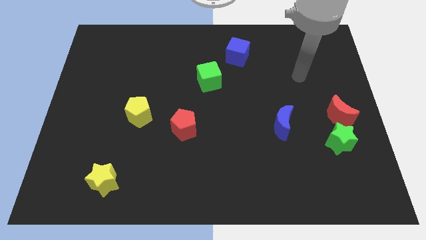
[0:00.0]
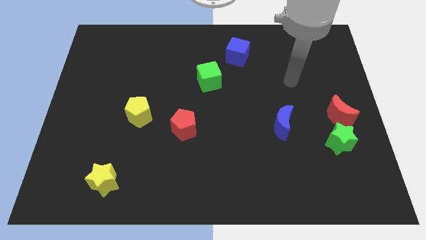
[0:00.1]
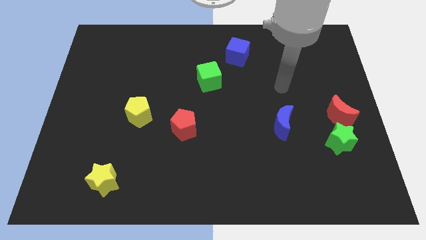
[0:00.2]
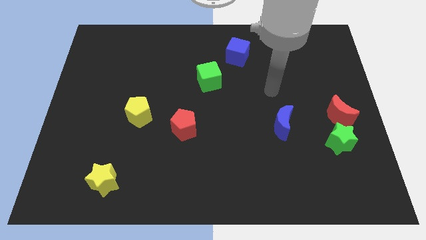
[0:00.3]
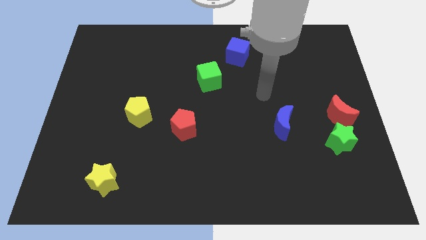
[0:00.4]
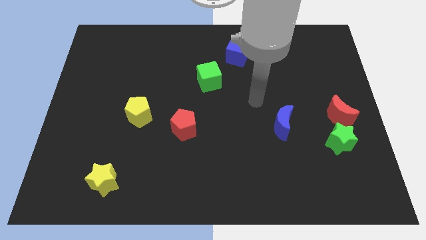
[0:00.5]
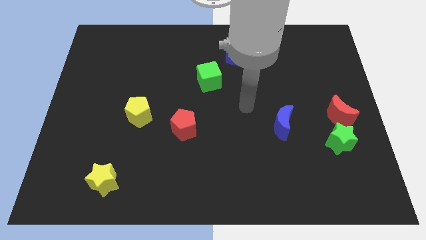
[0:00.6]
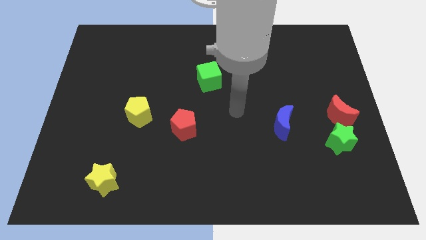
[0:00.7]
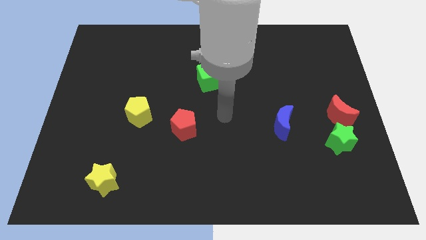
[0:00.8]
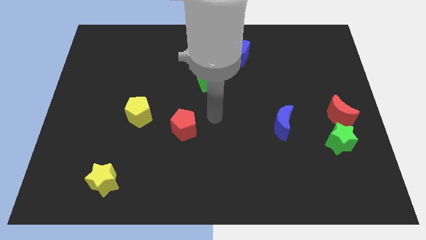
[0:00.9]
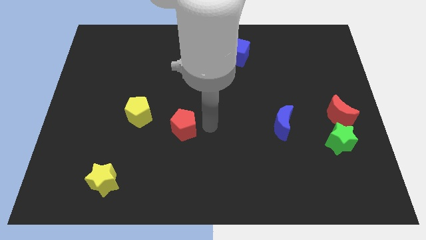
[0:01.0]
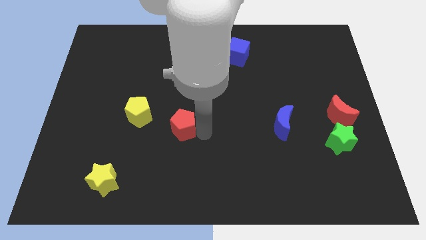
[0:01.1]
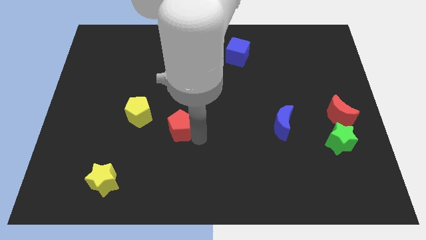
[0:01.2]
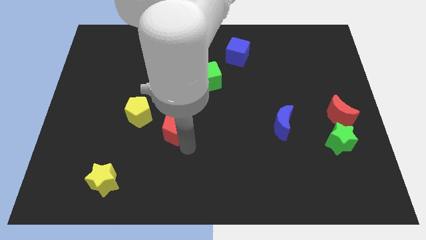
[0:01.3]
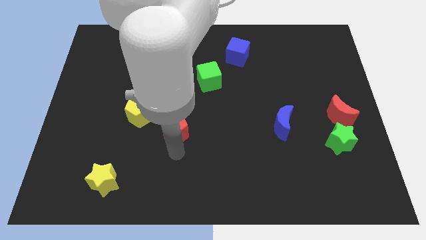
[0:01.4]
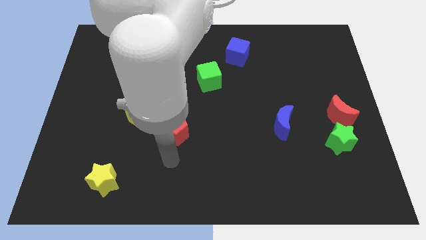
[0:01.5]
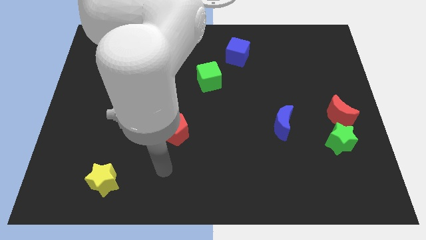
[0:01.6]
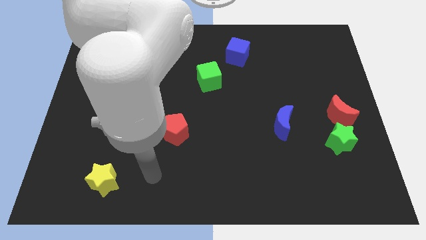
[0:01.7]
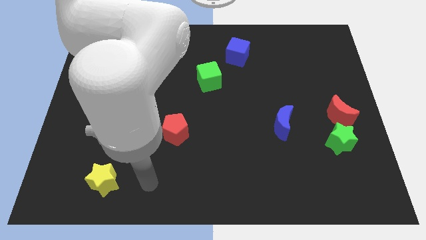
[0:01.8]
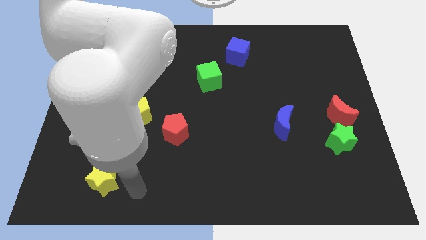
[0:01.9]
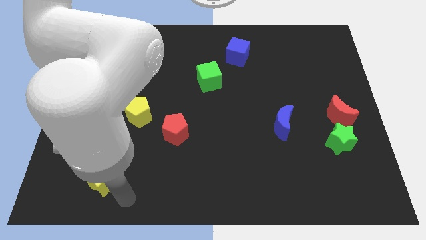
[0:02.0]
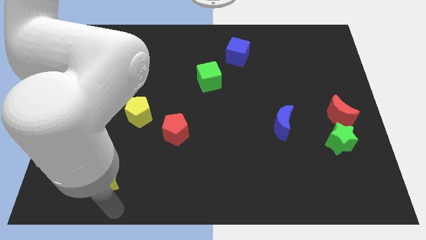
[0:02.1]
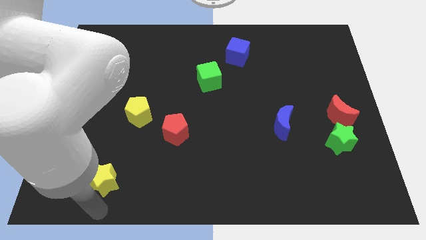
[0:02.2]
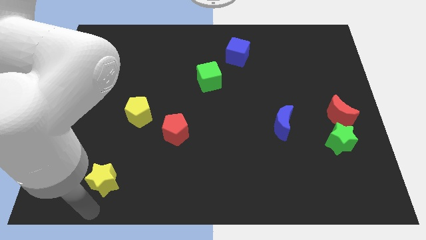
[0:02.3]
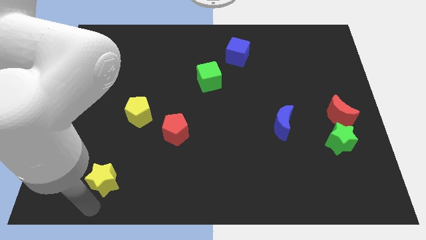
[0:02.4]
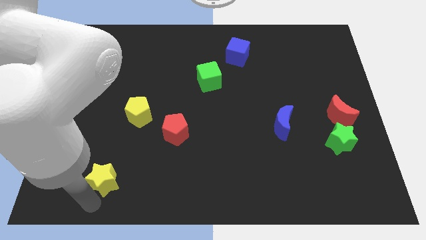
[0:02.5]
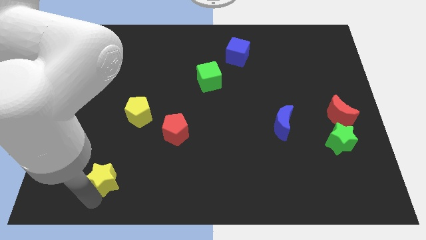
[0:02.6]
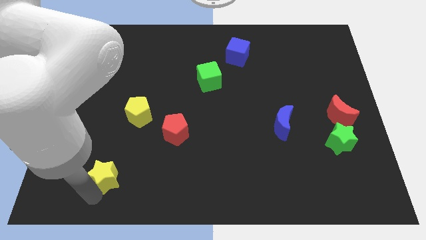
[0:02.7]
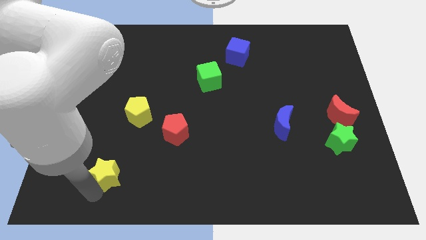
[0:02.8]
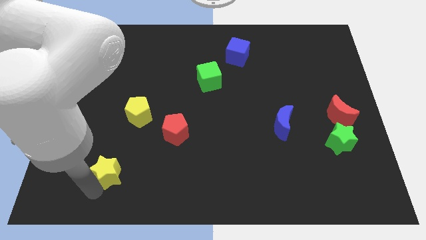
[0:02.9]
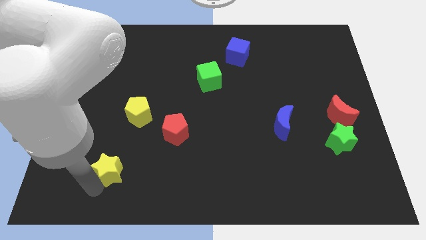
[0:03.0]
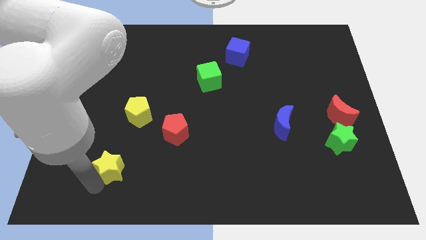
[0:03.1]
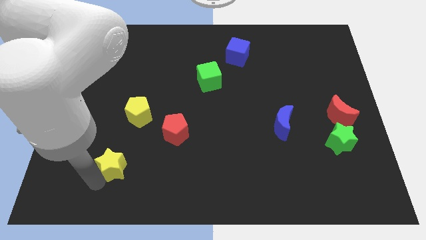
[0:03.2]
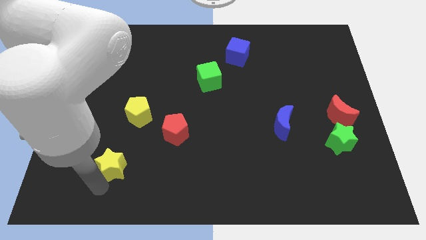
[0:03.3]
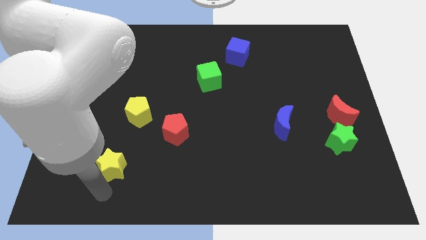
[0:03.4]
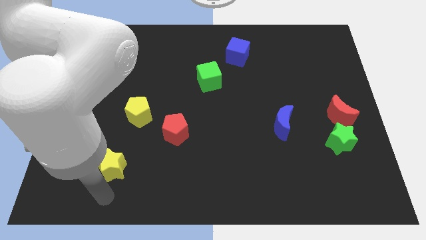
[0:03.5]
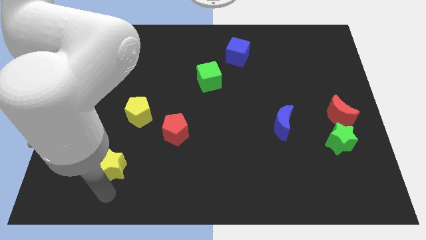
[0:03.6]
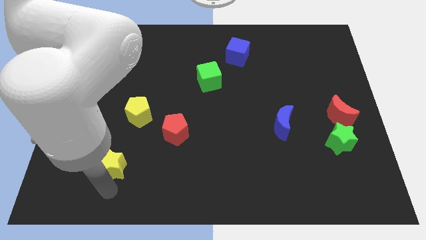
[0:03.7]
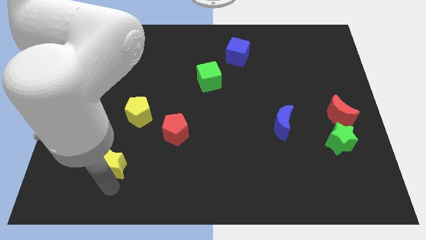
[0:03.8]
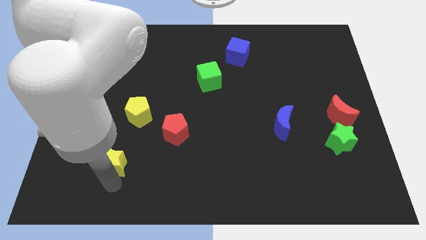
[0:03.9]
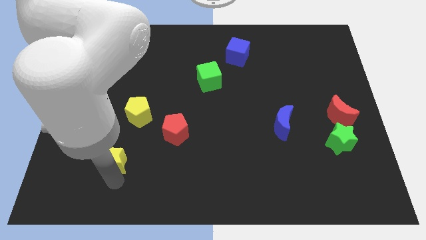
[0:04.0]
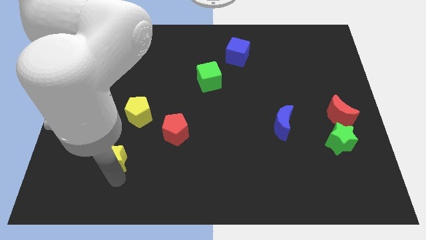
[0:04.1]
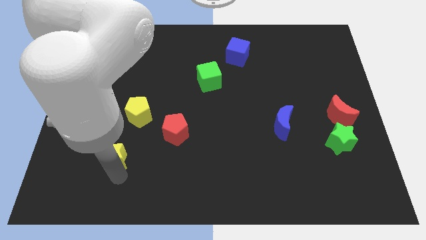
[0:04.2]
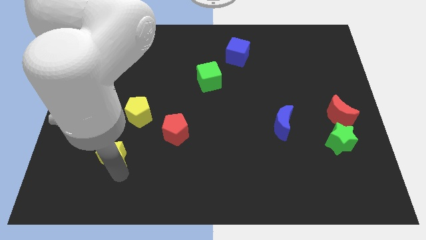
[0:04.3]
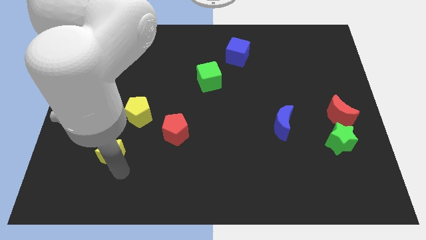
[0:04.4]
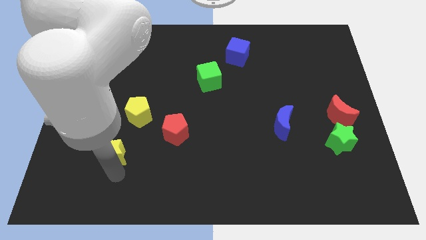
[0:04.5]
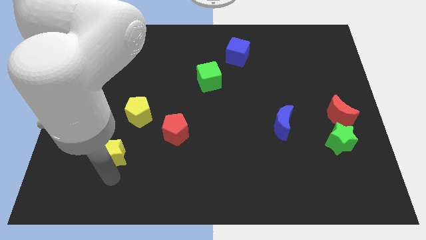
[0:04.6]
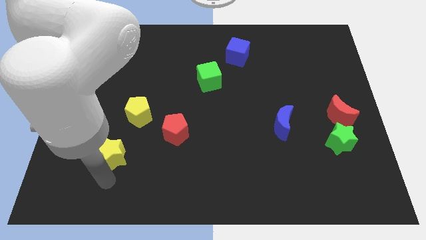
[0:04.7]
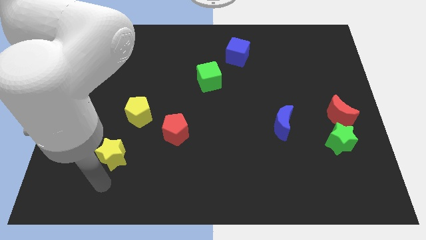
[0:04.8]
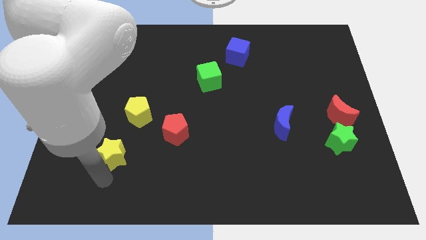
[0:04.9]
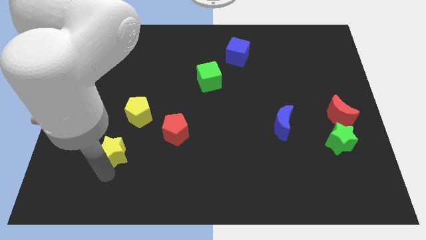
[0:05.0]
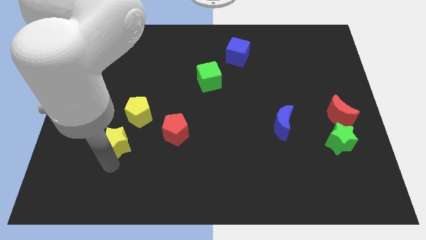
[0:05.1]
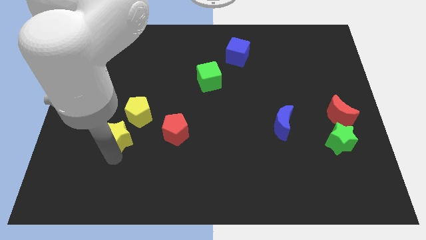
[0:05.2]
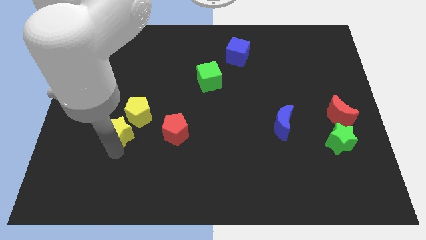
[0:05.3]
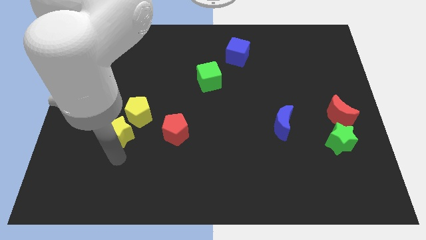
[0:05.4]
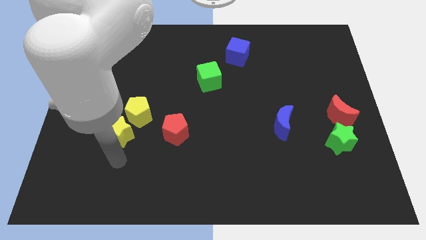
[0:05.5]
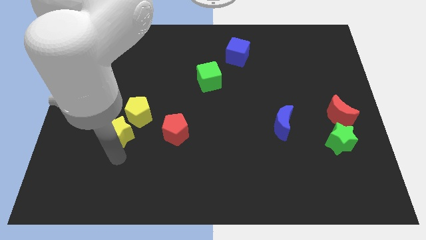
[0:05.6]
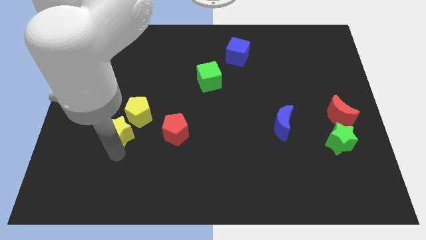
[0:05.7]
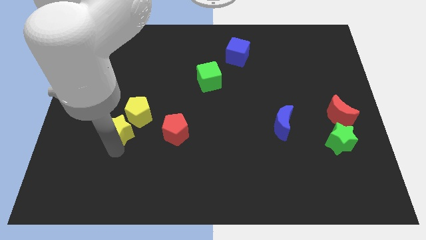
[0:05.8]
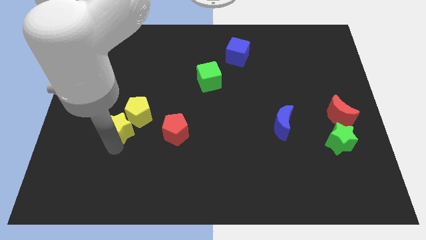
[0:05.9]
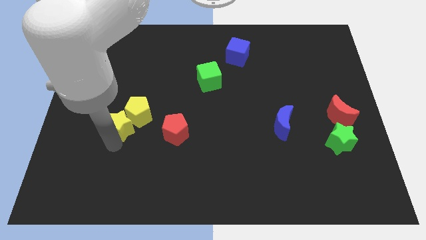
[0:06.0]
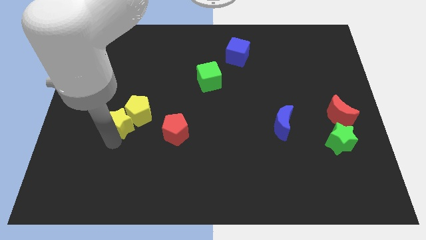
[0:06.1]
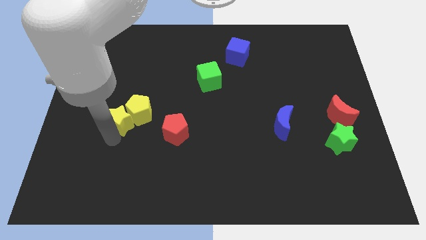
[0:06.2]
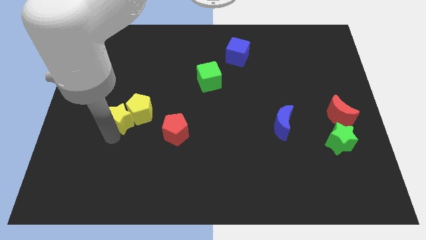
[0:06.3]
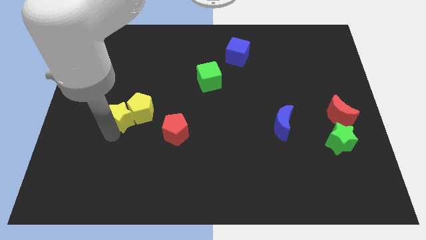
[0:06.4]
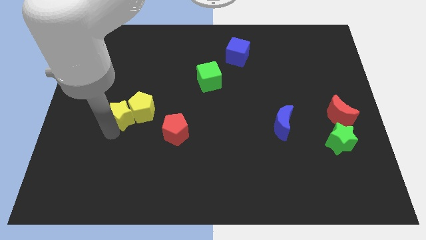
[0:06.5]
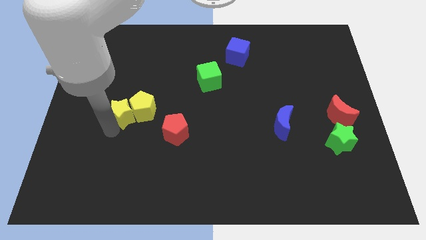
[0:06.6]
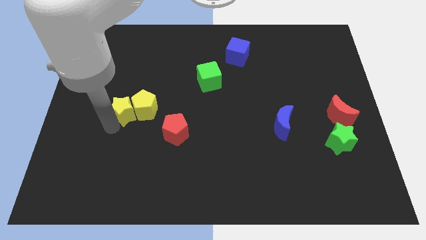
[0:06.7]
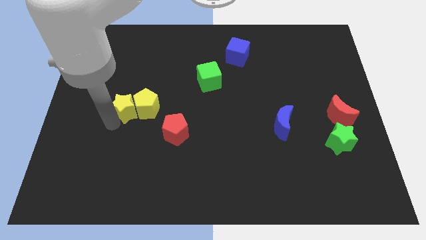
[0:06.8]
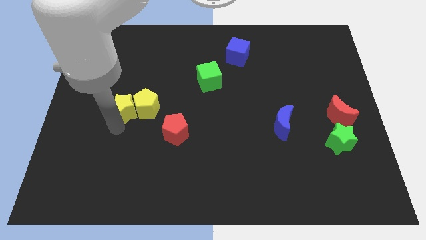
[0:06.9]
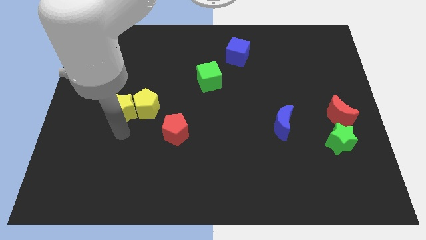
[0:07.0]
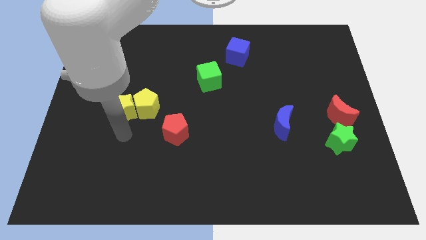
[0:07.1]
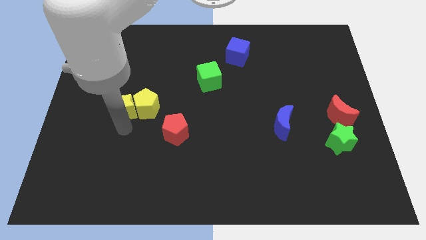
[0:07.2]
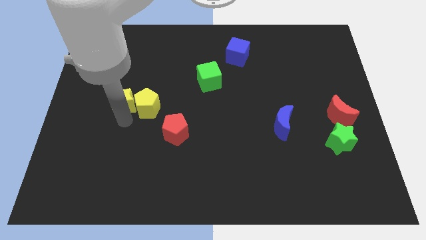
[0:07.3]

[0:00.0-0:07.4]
move the yellow star upwards

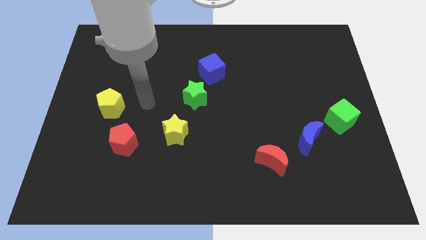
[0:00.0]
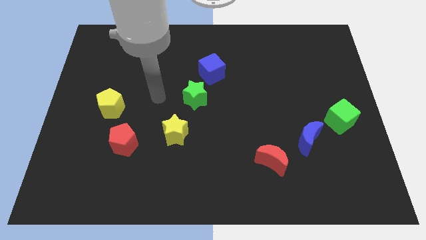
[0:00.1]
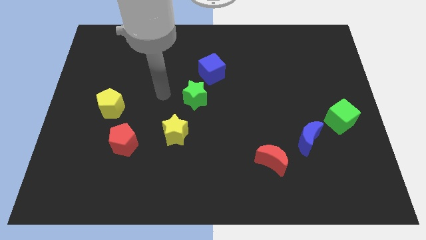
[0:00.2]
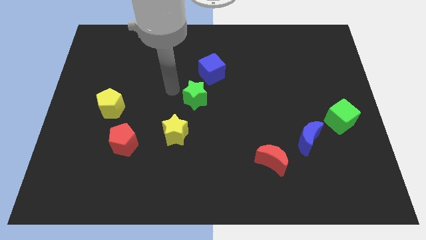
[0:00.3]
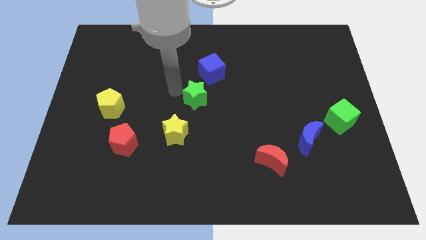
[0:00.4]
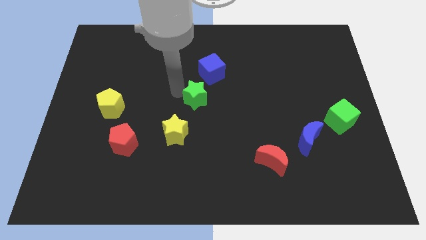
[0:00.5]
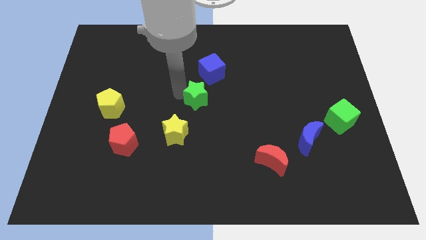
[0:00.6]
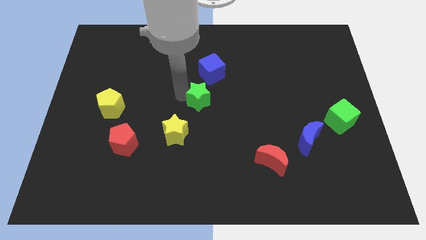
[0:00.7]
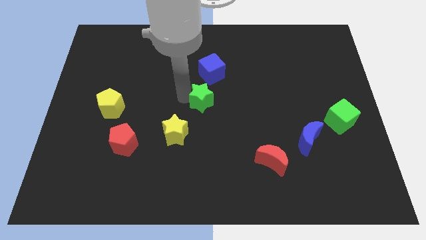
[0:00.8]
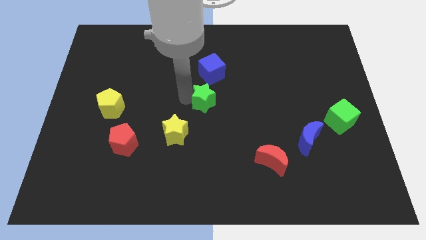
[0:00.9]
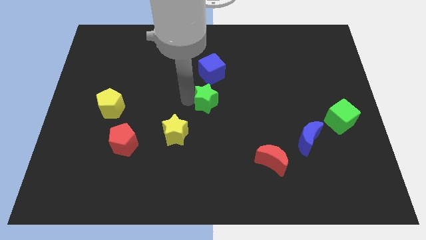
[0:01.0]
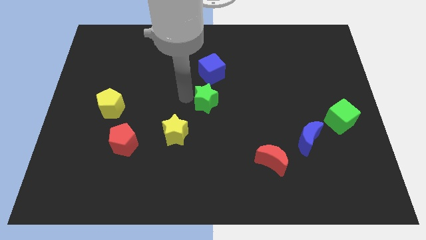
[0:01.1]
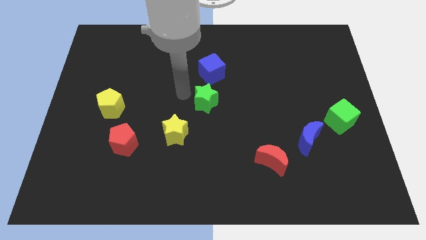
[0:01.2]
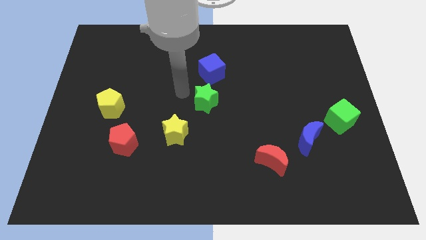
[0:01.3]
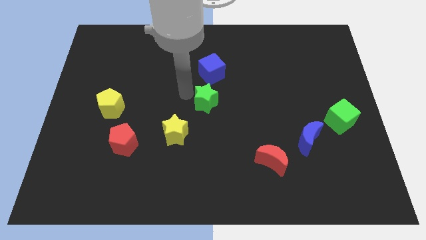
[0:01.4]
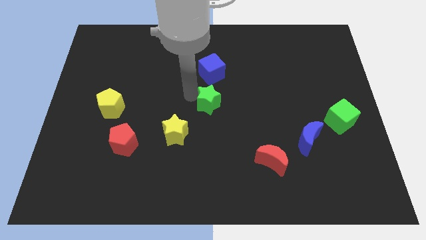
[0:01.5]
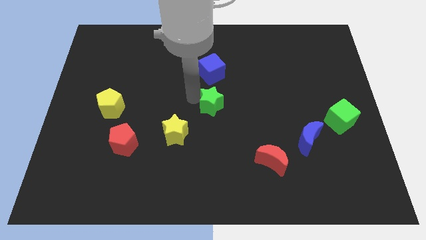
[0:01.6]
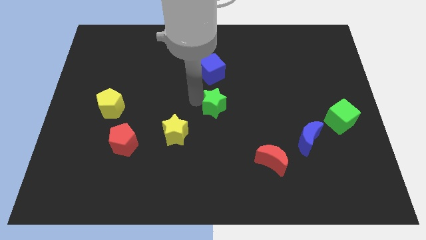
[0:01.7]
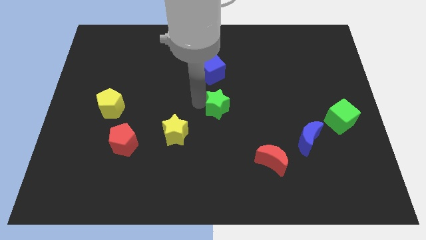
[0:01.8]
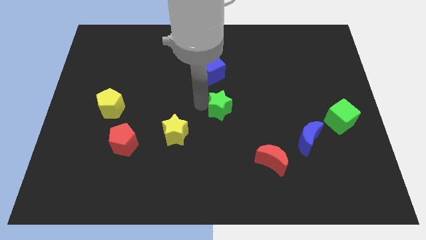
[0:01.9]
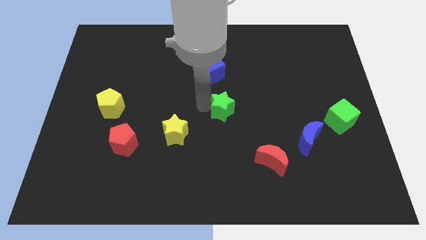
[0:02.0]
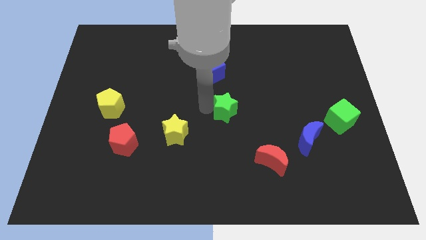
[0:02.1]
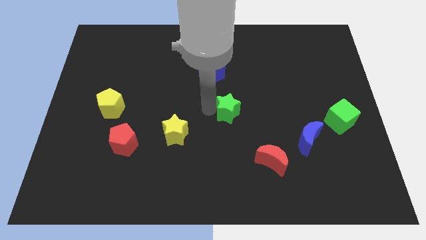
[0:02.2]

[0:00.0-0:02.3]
push the green star to the right a bit
